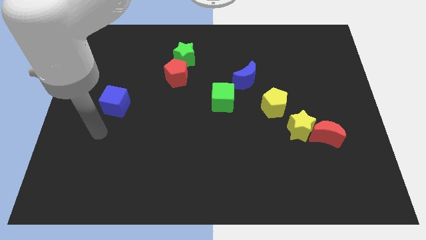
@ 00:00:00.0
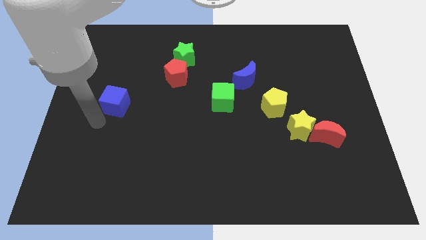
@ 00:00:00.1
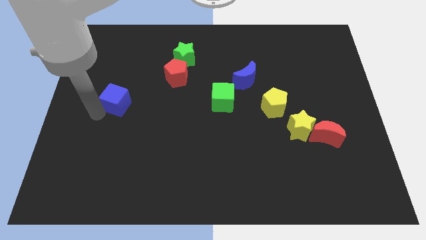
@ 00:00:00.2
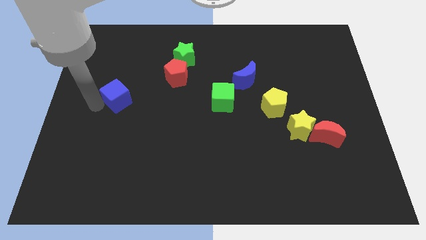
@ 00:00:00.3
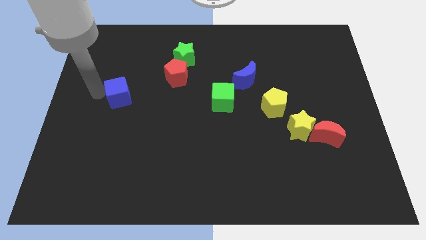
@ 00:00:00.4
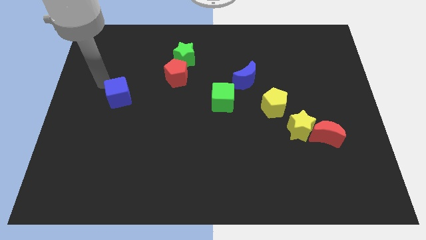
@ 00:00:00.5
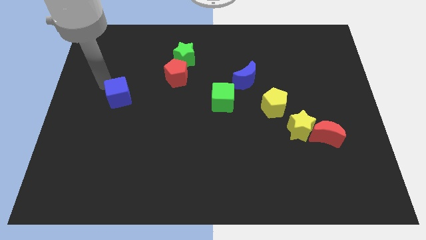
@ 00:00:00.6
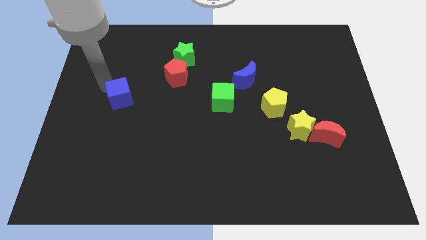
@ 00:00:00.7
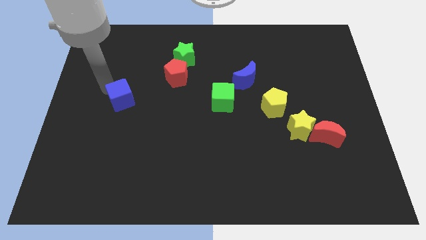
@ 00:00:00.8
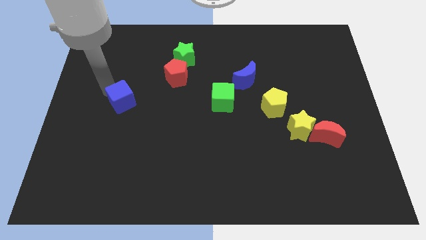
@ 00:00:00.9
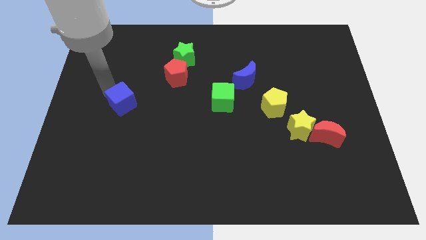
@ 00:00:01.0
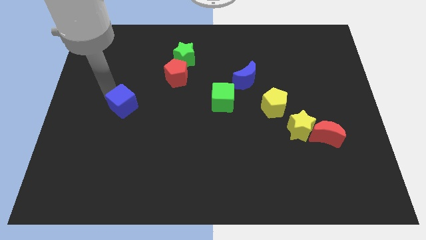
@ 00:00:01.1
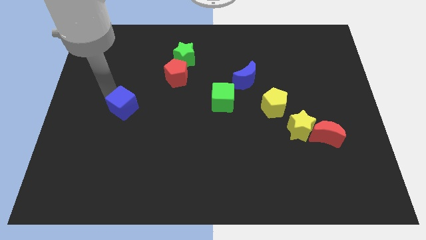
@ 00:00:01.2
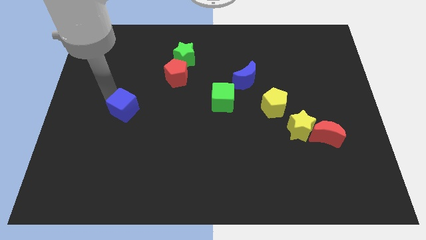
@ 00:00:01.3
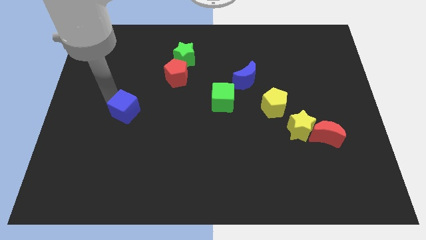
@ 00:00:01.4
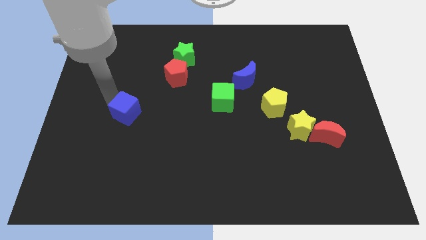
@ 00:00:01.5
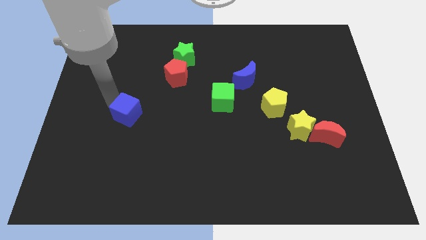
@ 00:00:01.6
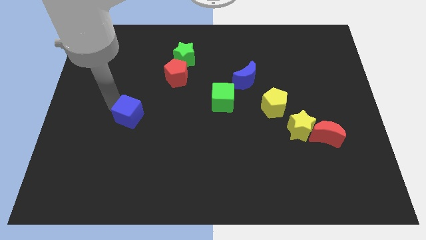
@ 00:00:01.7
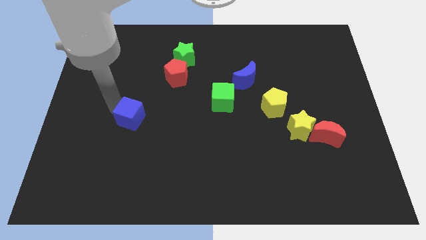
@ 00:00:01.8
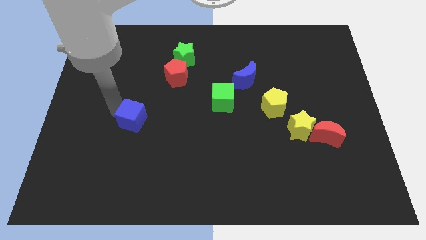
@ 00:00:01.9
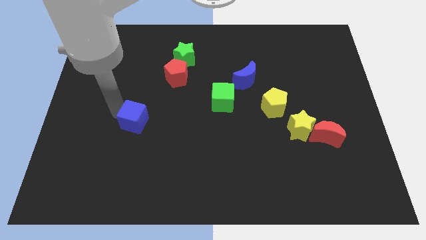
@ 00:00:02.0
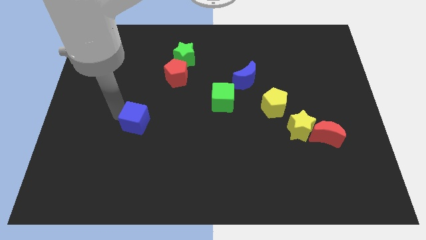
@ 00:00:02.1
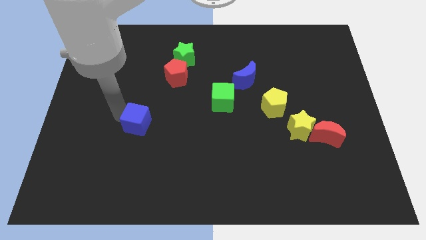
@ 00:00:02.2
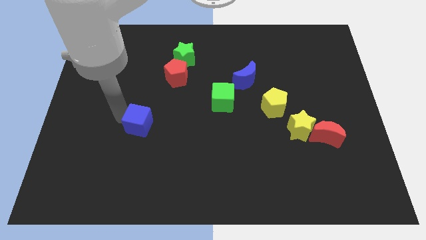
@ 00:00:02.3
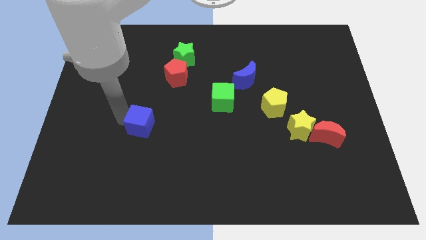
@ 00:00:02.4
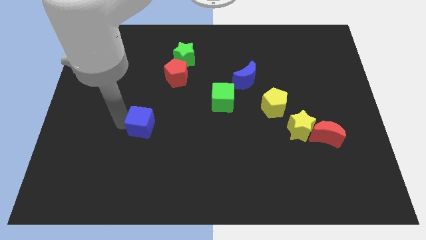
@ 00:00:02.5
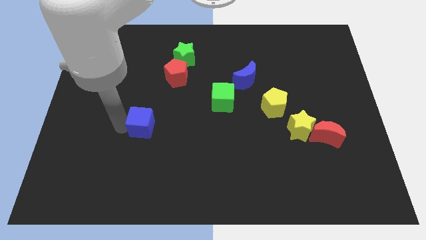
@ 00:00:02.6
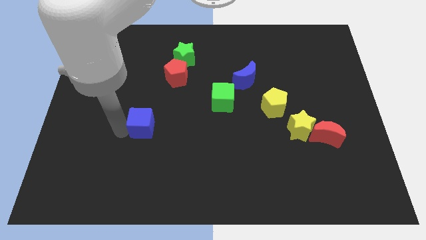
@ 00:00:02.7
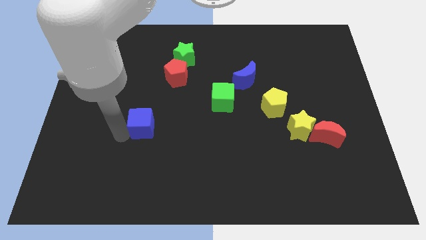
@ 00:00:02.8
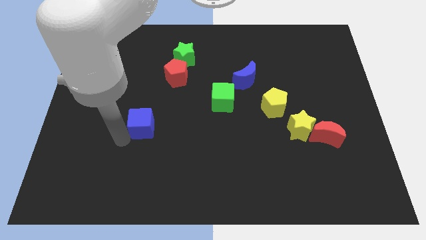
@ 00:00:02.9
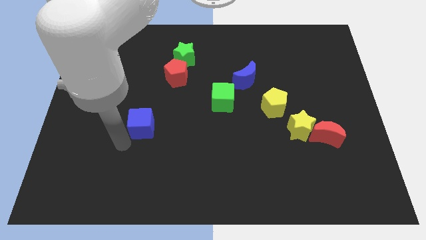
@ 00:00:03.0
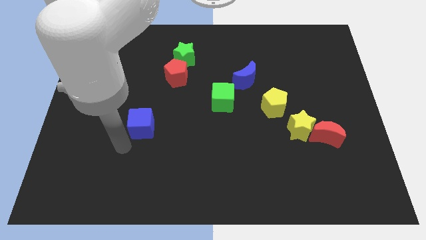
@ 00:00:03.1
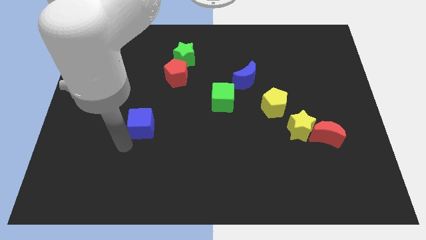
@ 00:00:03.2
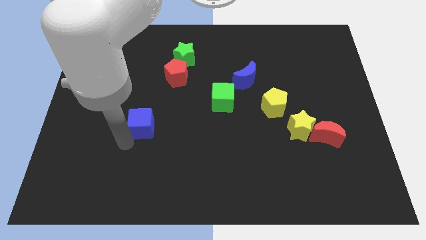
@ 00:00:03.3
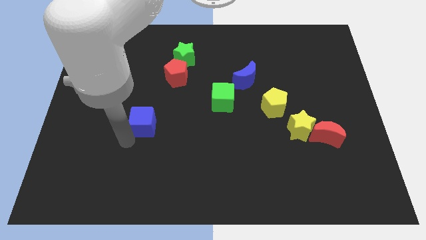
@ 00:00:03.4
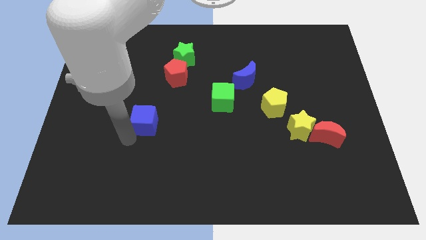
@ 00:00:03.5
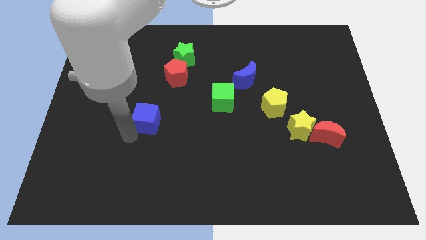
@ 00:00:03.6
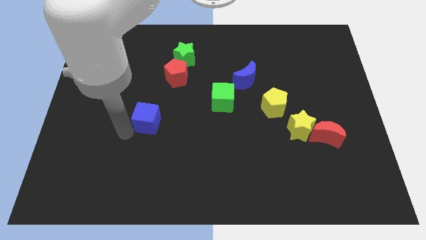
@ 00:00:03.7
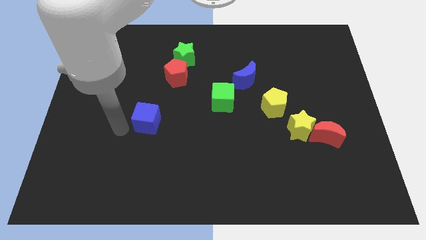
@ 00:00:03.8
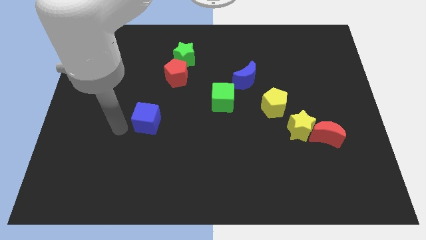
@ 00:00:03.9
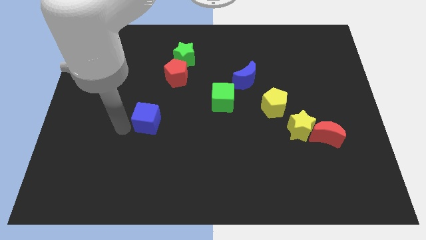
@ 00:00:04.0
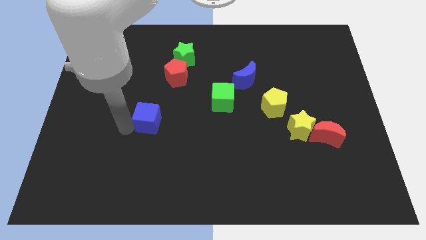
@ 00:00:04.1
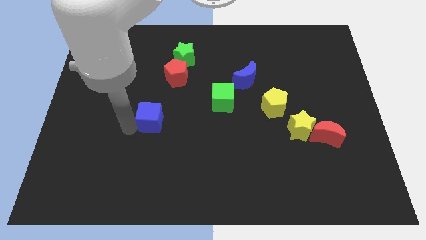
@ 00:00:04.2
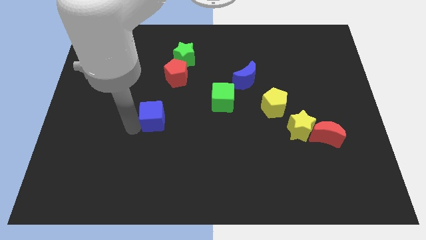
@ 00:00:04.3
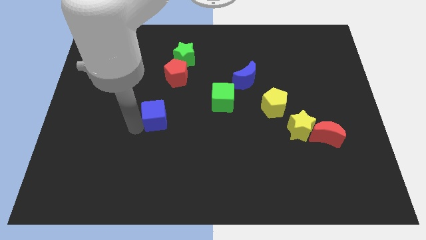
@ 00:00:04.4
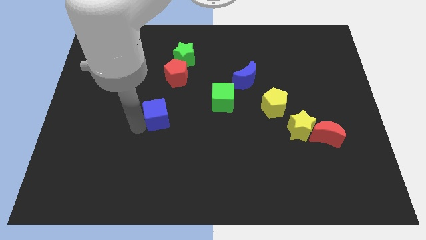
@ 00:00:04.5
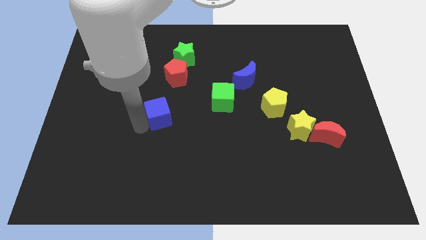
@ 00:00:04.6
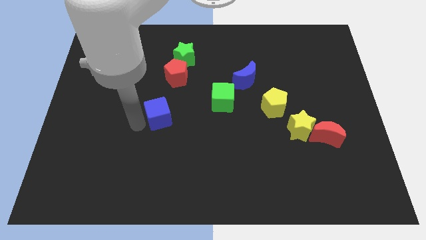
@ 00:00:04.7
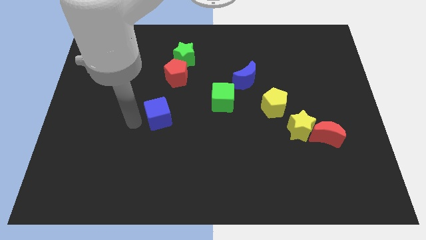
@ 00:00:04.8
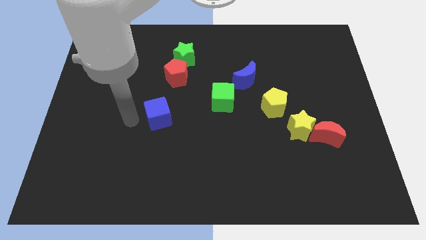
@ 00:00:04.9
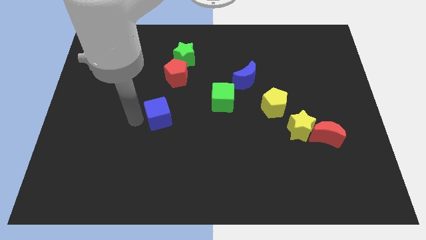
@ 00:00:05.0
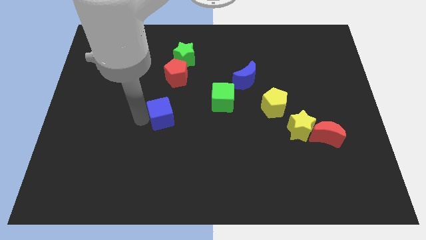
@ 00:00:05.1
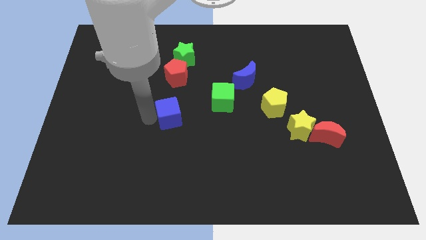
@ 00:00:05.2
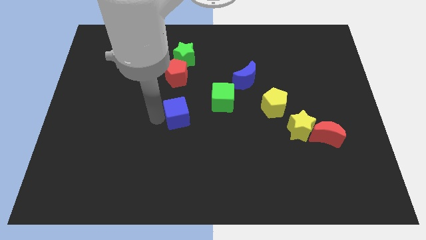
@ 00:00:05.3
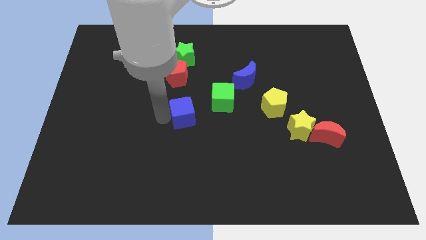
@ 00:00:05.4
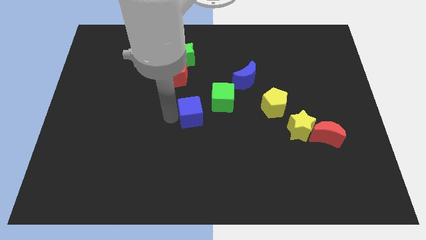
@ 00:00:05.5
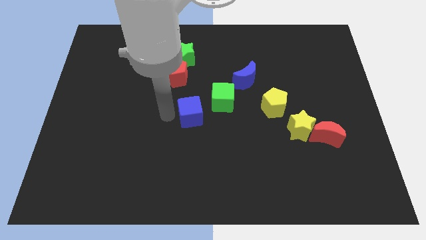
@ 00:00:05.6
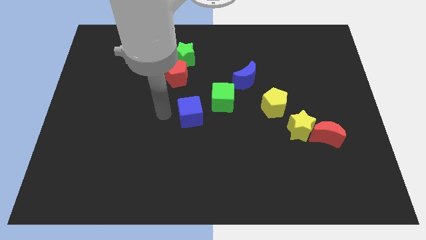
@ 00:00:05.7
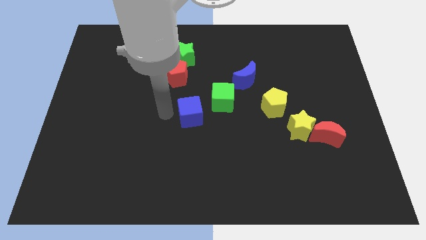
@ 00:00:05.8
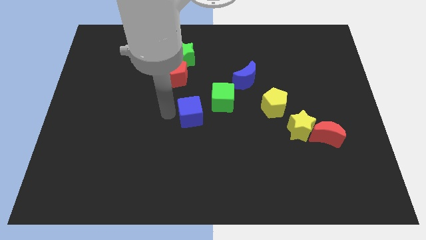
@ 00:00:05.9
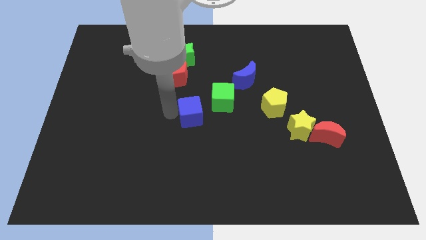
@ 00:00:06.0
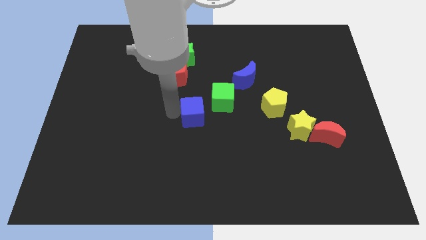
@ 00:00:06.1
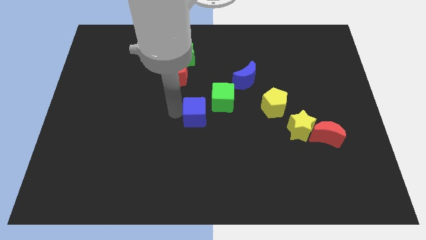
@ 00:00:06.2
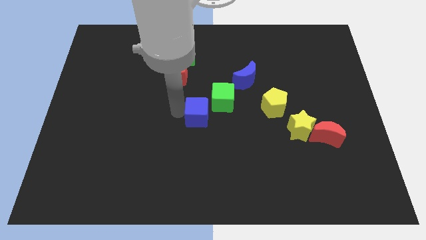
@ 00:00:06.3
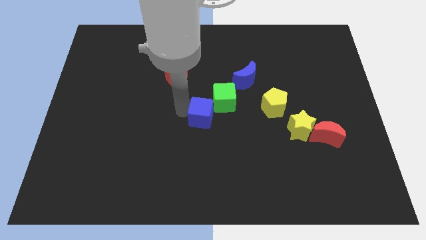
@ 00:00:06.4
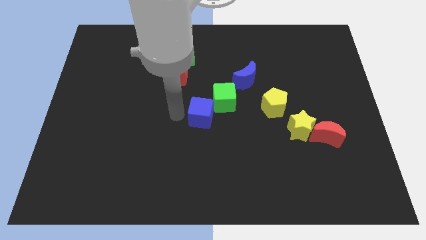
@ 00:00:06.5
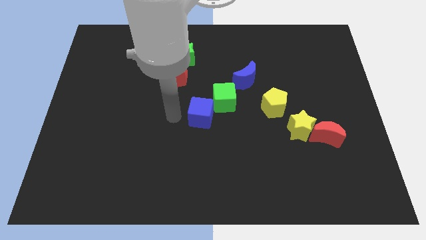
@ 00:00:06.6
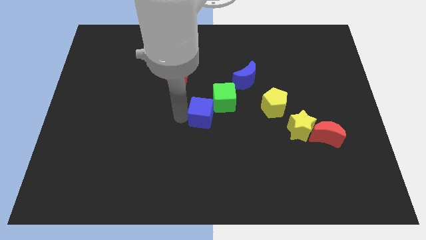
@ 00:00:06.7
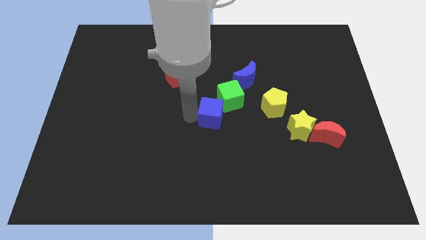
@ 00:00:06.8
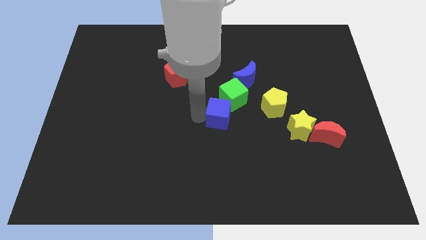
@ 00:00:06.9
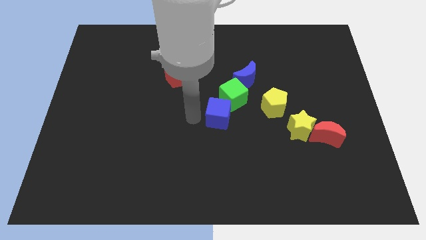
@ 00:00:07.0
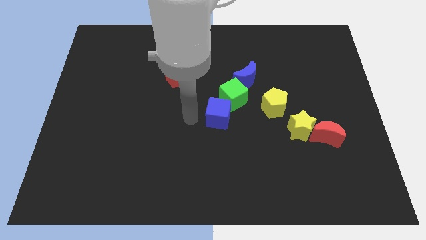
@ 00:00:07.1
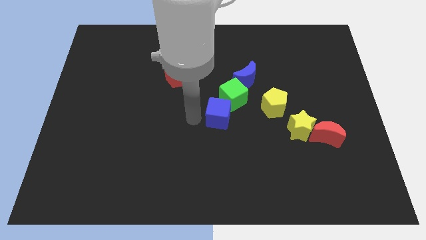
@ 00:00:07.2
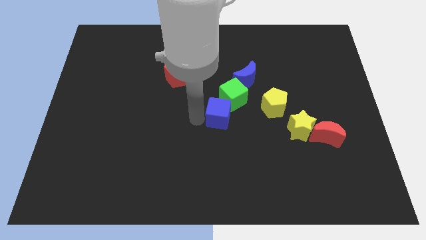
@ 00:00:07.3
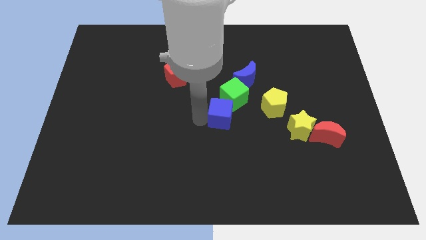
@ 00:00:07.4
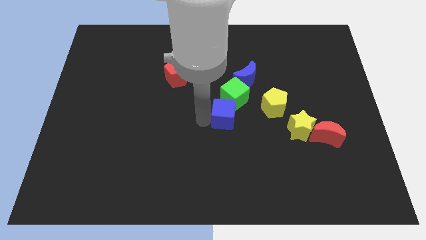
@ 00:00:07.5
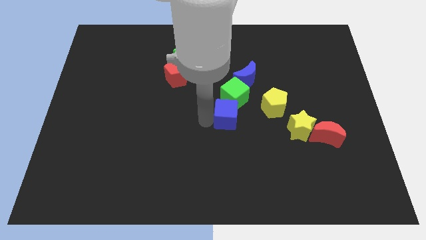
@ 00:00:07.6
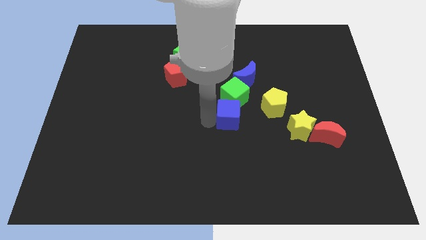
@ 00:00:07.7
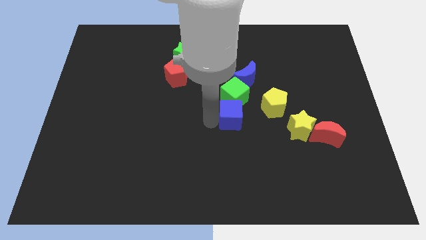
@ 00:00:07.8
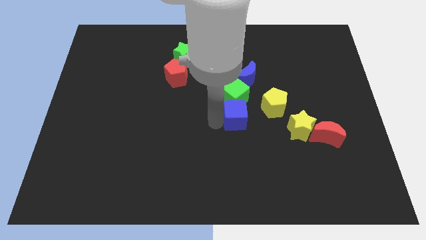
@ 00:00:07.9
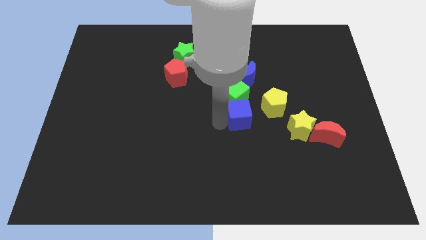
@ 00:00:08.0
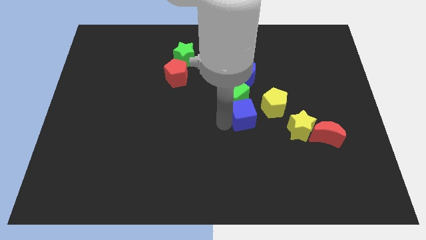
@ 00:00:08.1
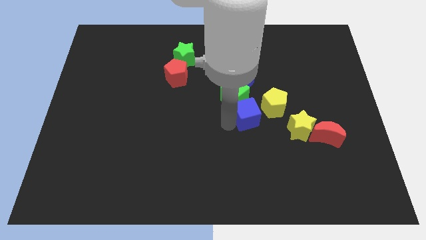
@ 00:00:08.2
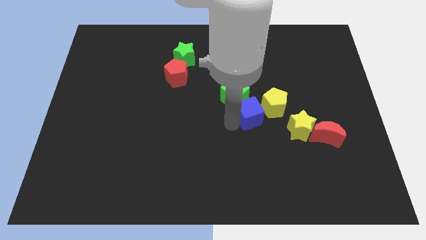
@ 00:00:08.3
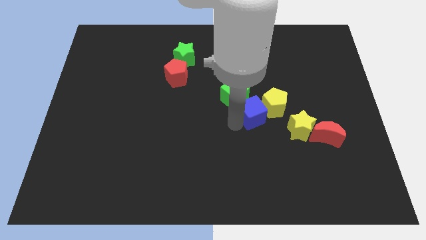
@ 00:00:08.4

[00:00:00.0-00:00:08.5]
slide the blue cube to the yellow pentagon
